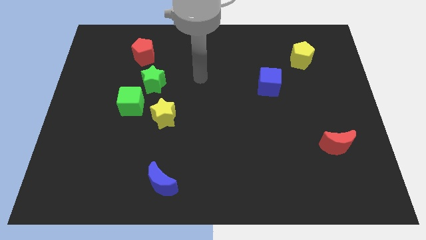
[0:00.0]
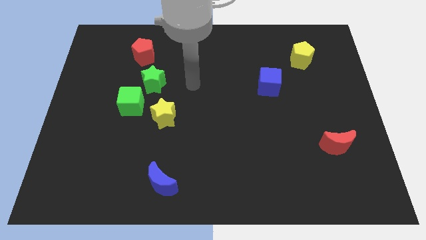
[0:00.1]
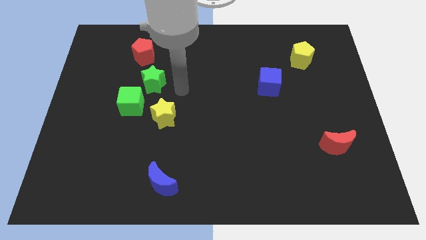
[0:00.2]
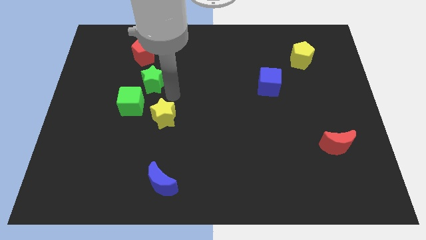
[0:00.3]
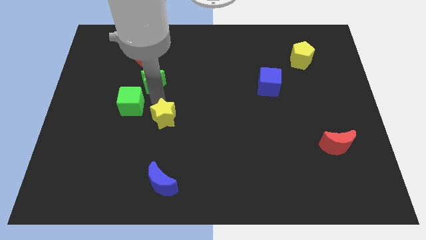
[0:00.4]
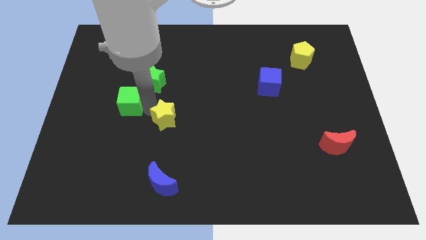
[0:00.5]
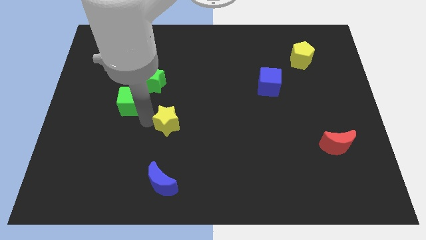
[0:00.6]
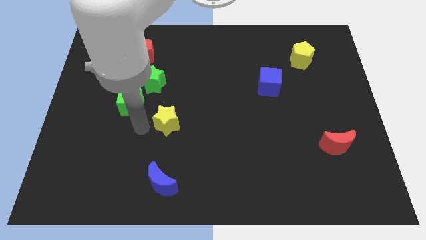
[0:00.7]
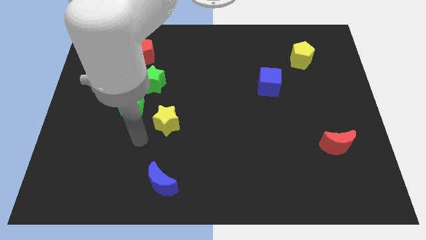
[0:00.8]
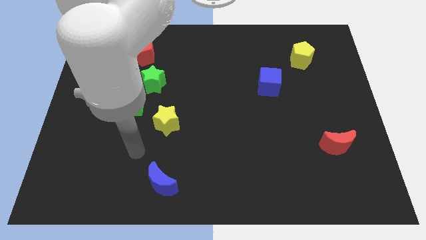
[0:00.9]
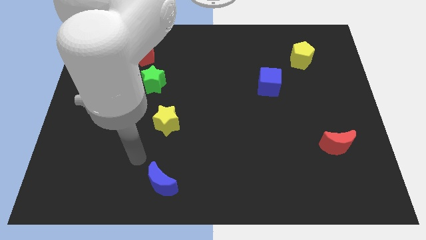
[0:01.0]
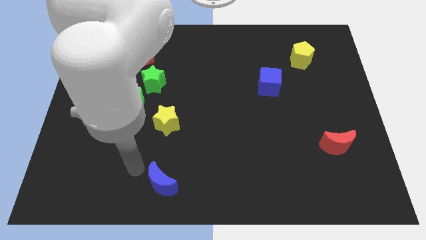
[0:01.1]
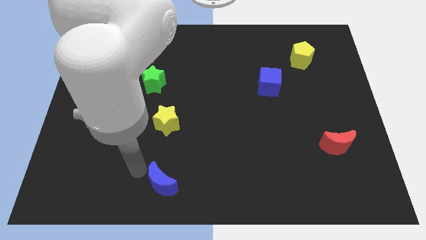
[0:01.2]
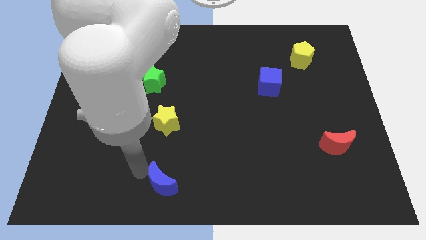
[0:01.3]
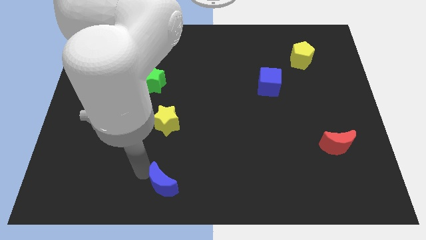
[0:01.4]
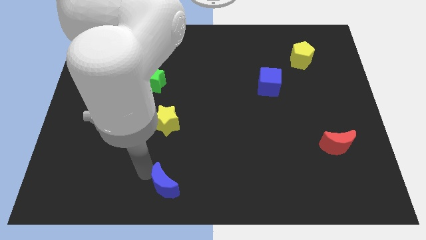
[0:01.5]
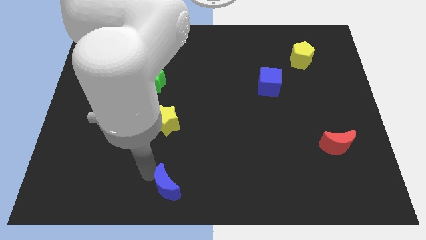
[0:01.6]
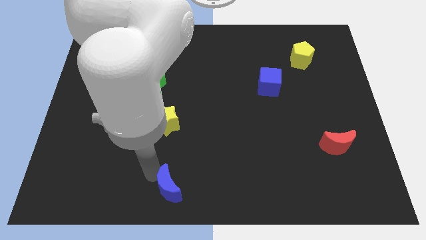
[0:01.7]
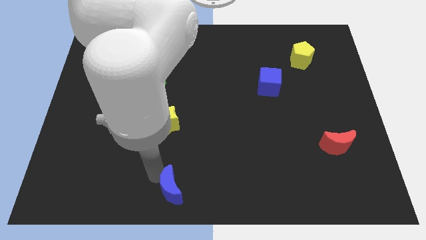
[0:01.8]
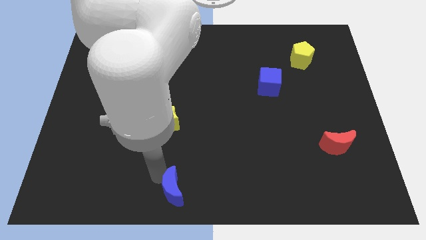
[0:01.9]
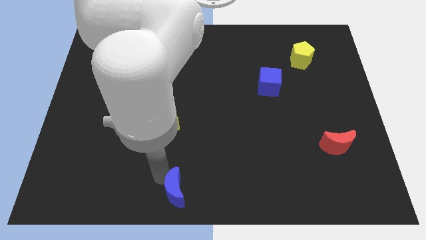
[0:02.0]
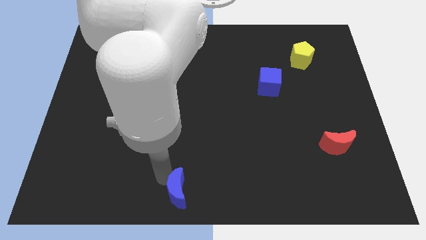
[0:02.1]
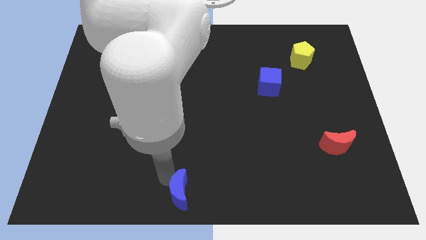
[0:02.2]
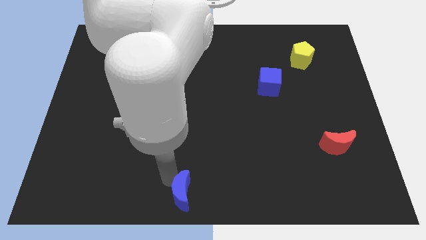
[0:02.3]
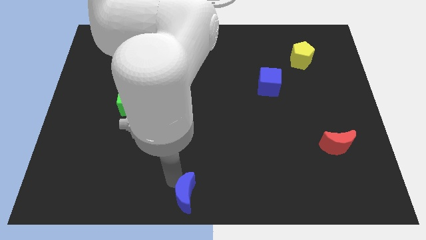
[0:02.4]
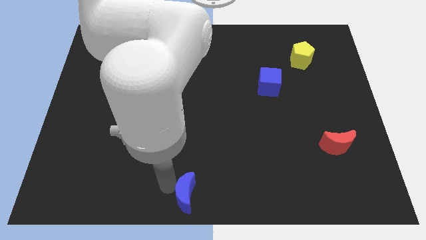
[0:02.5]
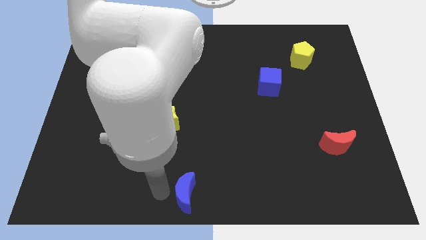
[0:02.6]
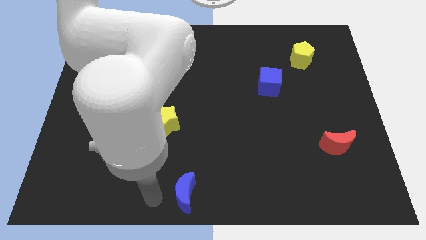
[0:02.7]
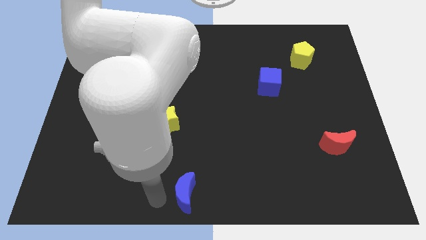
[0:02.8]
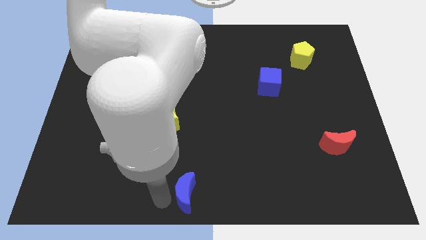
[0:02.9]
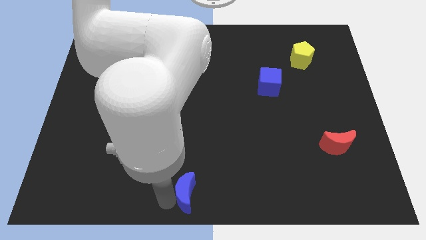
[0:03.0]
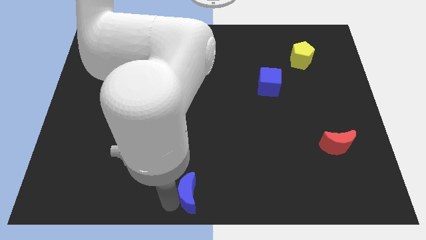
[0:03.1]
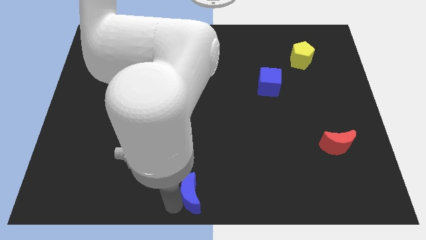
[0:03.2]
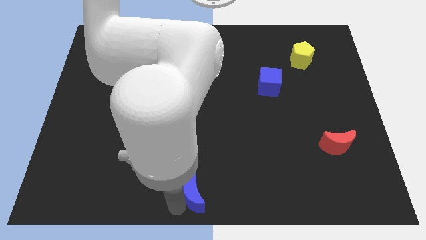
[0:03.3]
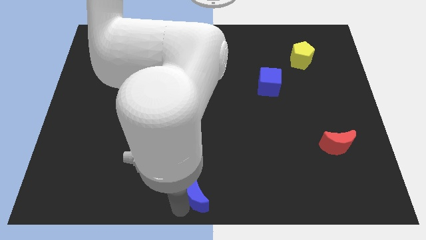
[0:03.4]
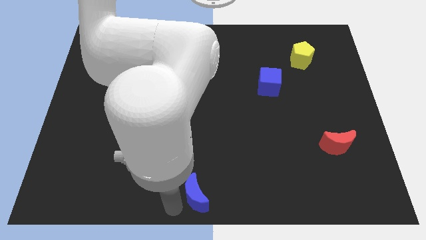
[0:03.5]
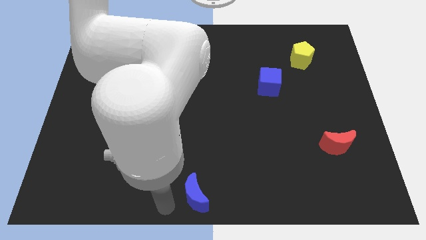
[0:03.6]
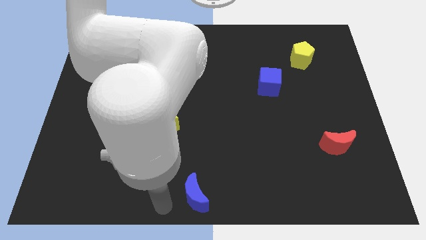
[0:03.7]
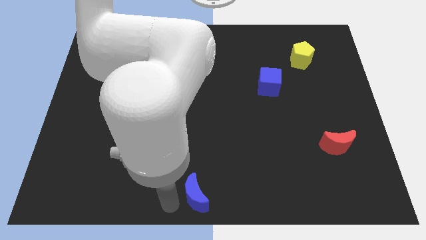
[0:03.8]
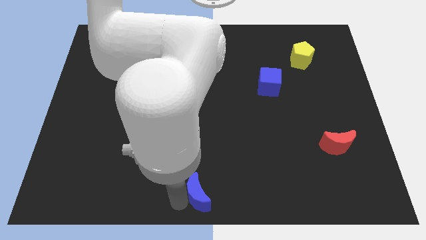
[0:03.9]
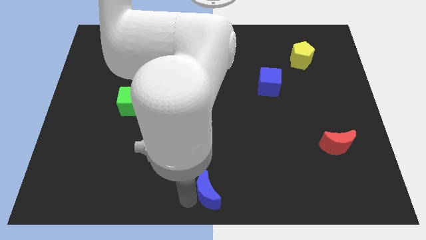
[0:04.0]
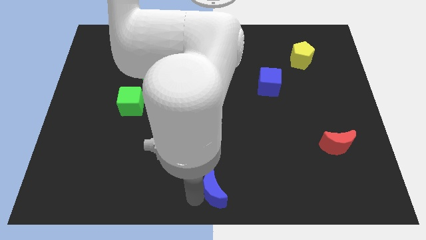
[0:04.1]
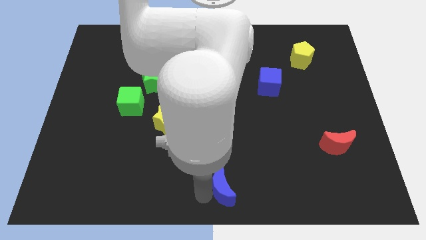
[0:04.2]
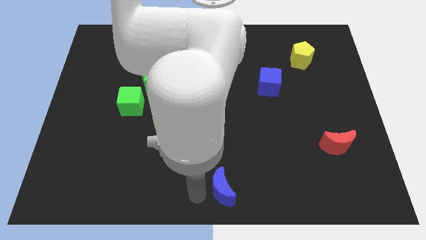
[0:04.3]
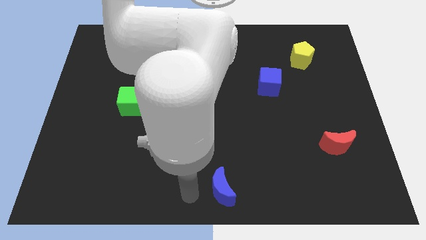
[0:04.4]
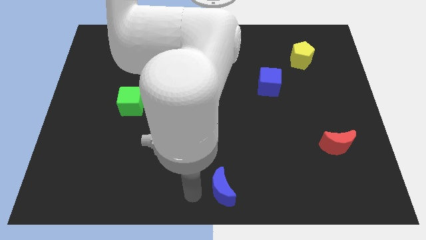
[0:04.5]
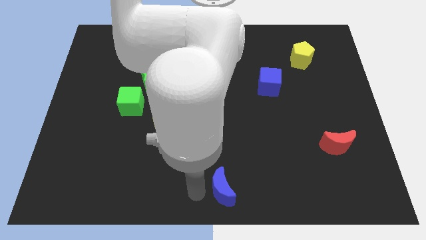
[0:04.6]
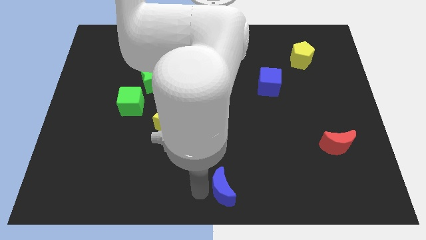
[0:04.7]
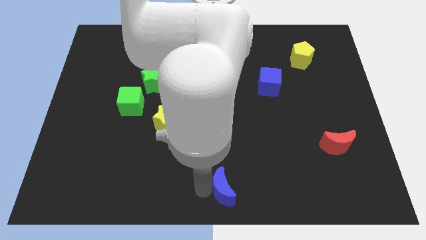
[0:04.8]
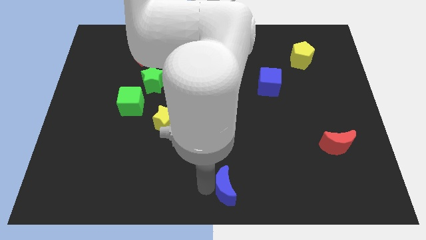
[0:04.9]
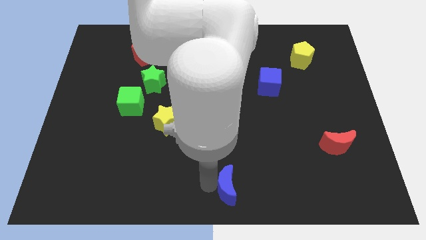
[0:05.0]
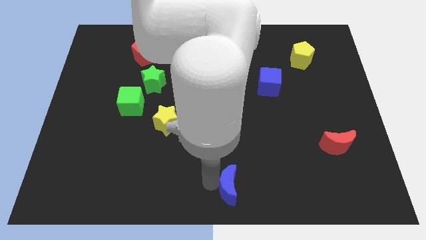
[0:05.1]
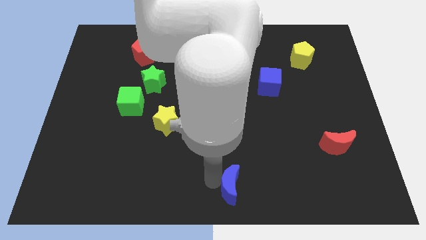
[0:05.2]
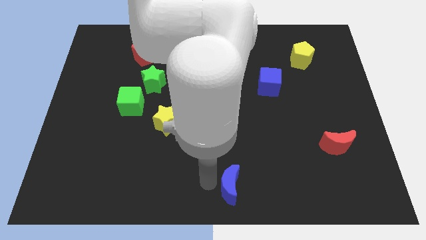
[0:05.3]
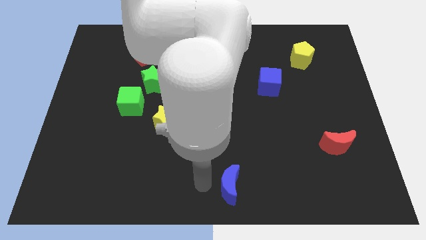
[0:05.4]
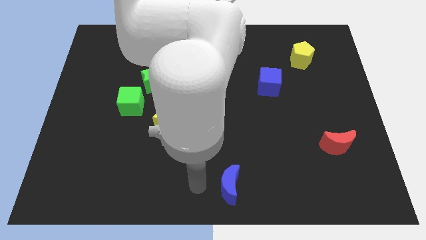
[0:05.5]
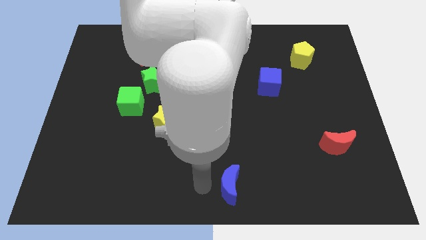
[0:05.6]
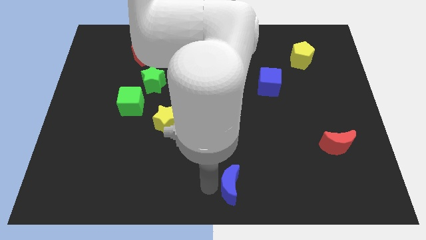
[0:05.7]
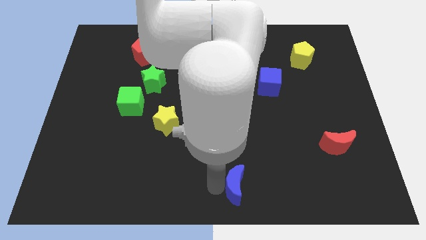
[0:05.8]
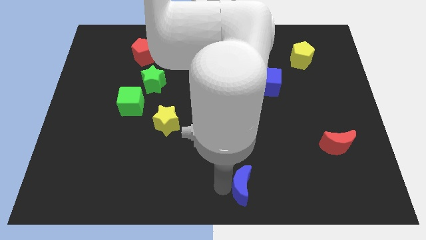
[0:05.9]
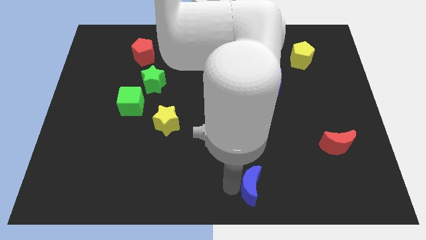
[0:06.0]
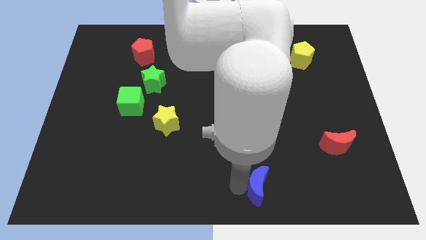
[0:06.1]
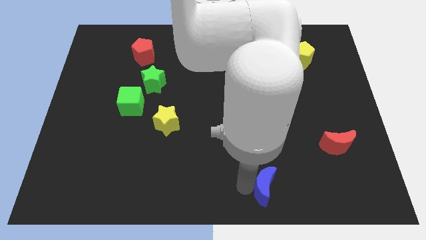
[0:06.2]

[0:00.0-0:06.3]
push the blue moon to the right

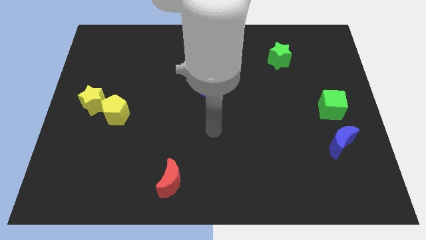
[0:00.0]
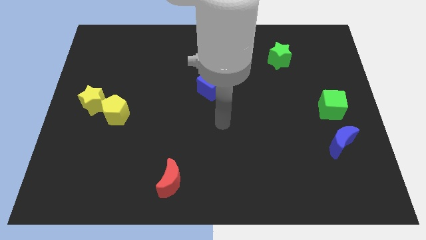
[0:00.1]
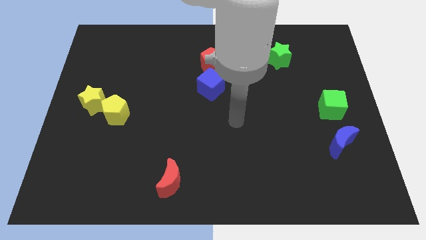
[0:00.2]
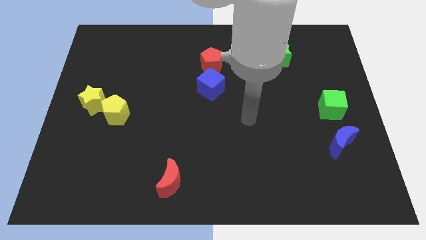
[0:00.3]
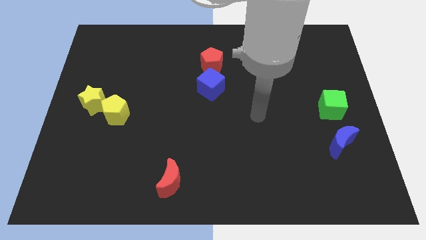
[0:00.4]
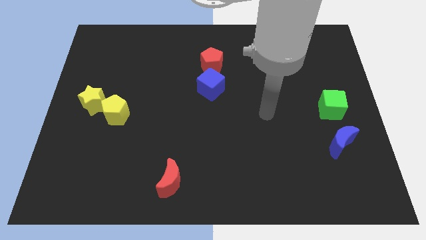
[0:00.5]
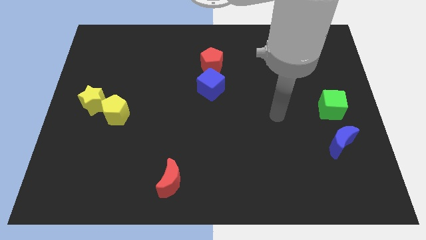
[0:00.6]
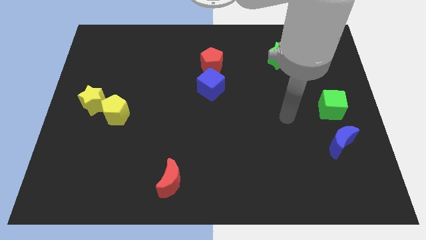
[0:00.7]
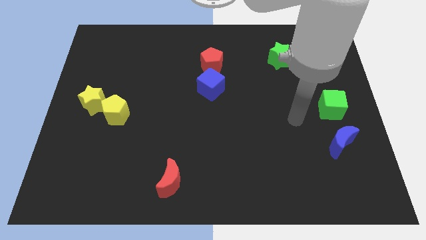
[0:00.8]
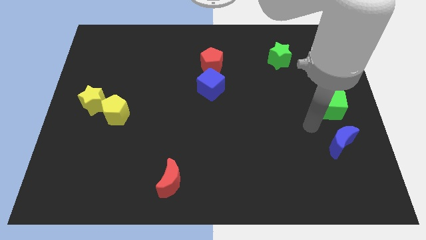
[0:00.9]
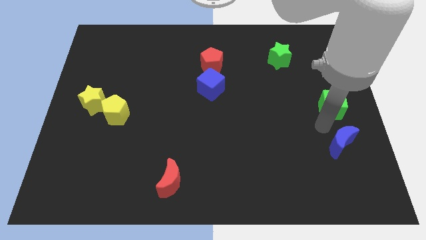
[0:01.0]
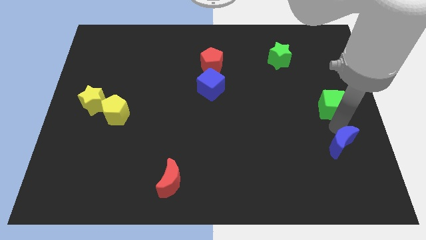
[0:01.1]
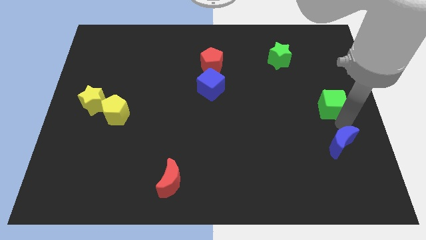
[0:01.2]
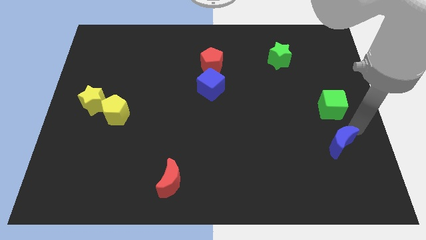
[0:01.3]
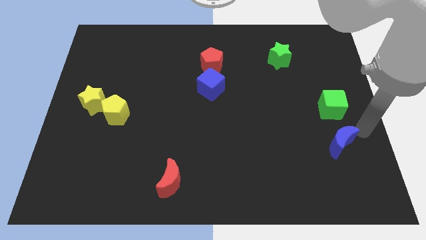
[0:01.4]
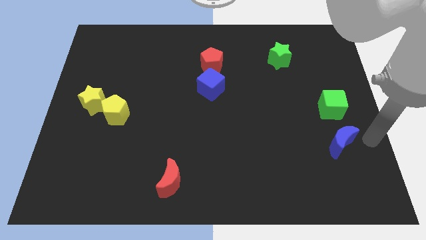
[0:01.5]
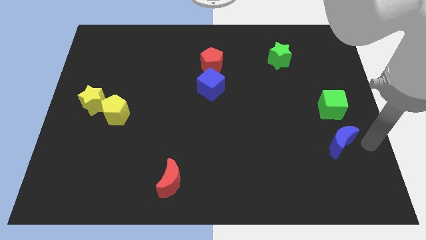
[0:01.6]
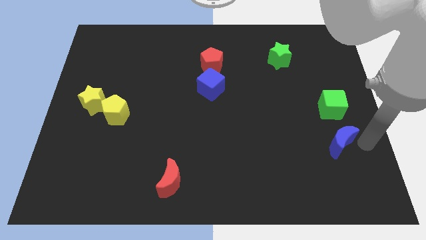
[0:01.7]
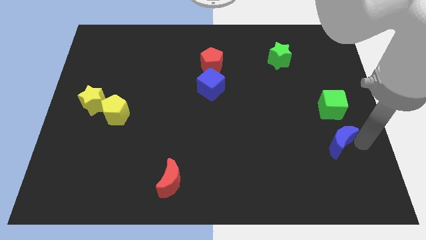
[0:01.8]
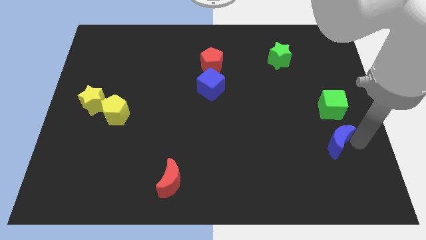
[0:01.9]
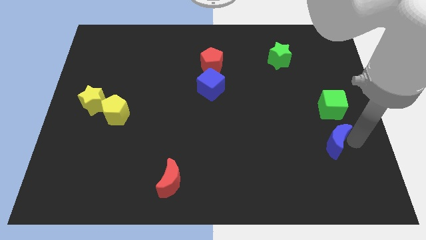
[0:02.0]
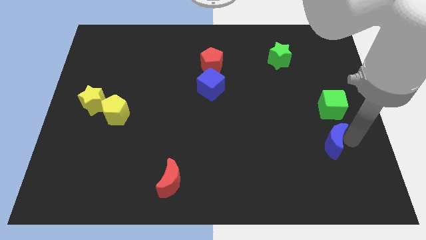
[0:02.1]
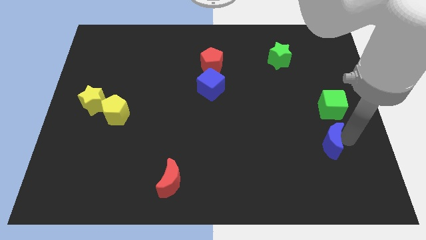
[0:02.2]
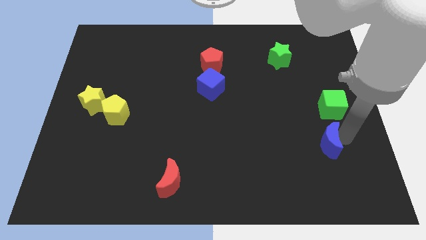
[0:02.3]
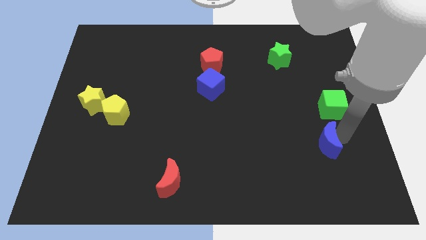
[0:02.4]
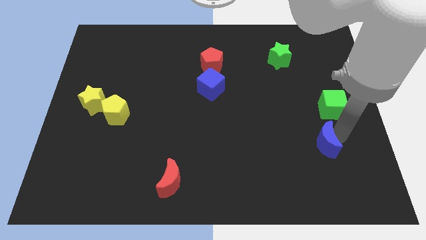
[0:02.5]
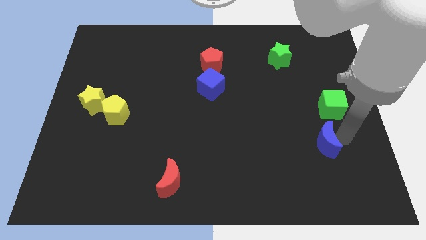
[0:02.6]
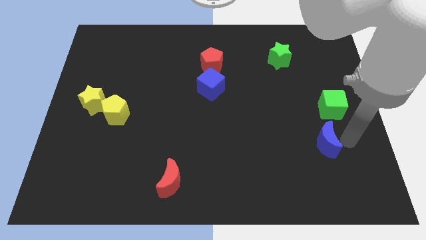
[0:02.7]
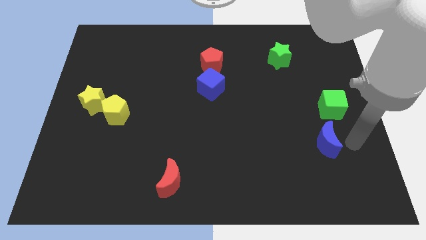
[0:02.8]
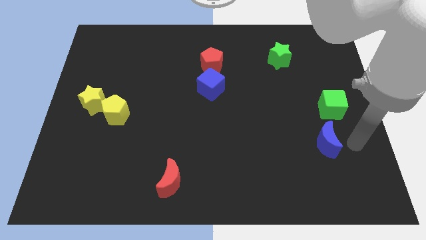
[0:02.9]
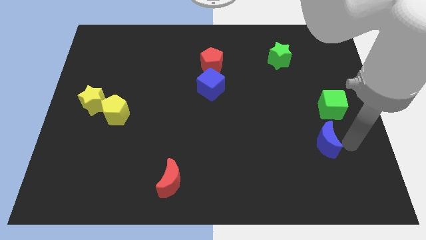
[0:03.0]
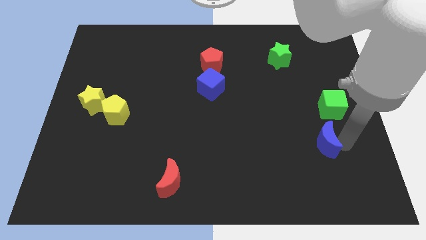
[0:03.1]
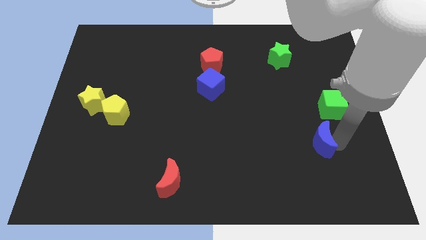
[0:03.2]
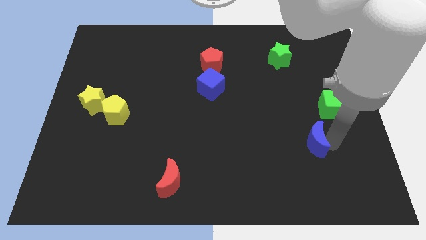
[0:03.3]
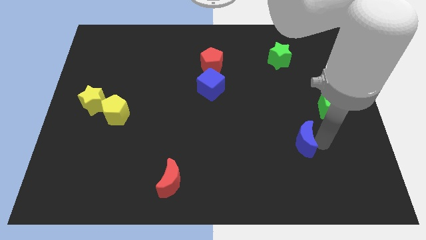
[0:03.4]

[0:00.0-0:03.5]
slide the blue moon a bit left
